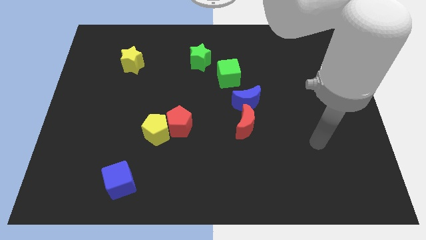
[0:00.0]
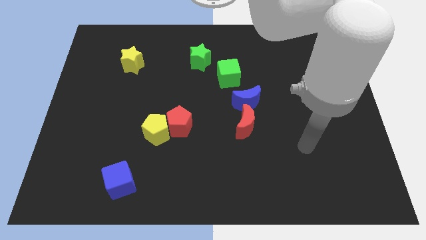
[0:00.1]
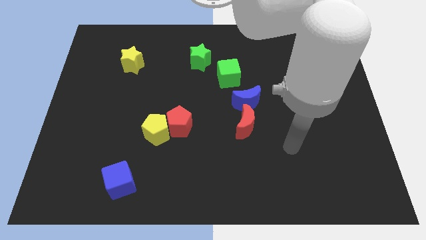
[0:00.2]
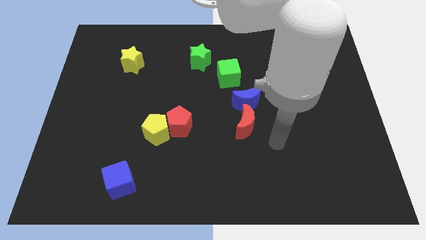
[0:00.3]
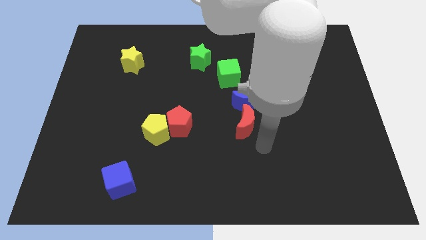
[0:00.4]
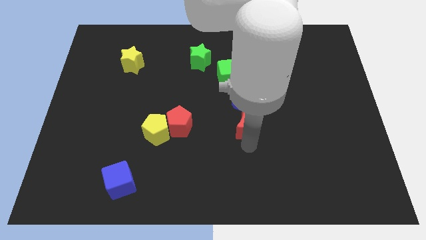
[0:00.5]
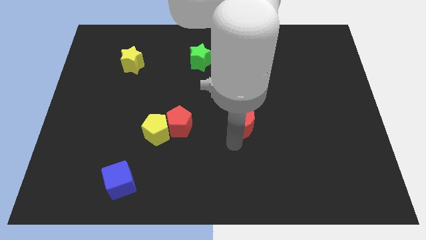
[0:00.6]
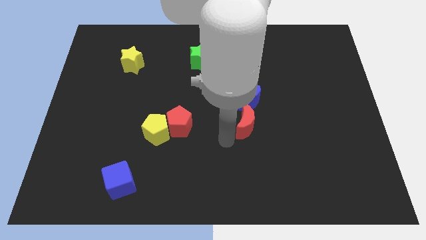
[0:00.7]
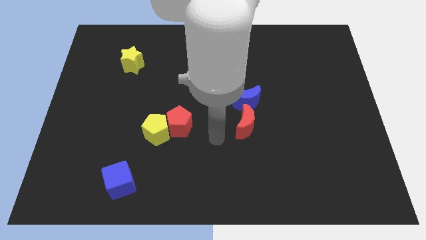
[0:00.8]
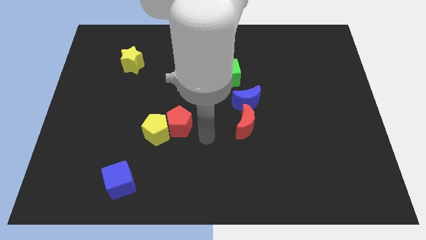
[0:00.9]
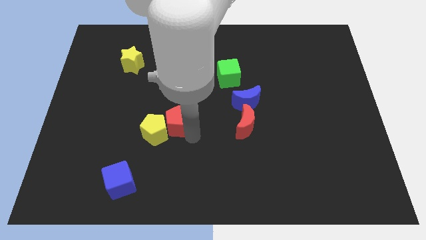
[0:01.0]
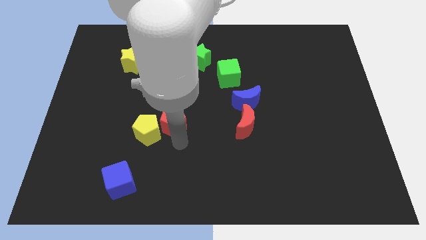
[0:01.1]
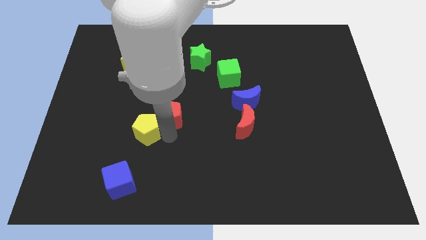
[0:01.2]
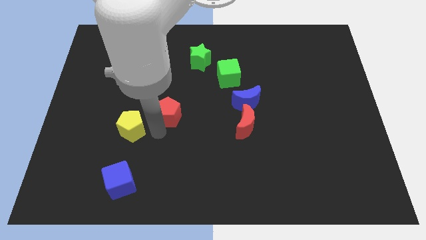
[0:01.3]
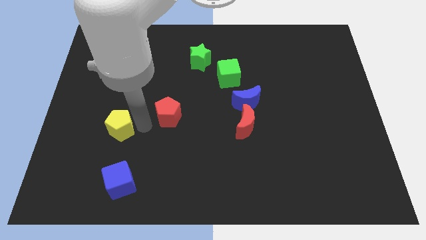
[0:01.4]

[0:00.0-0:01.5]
pull the red pentagon apart from the yellow pentagon

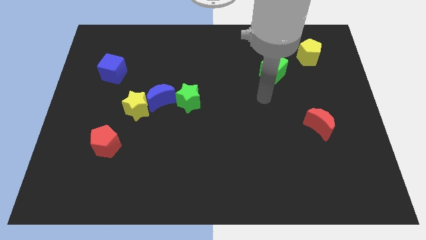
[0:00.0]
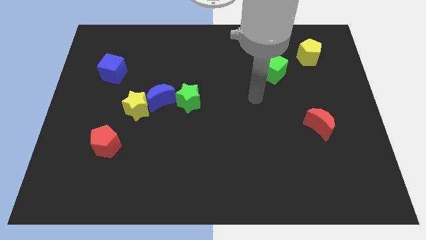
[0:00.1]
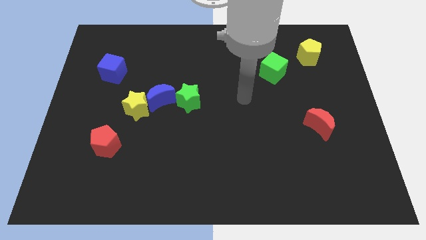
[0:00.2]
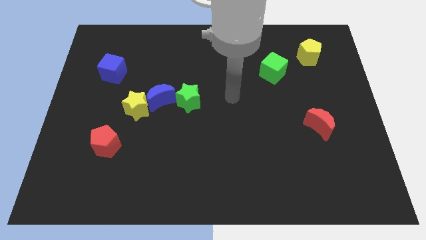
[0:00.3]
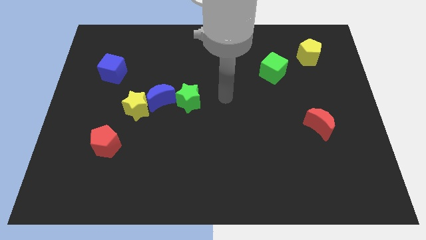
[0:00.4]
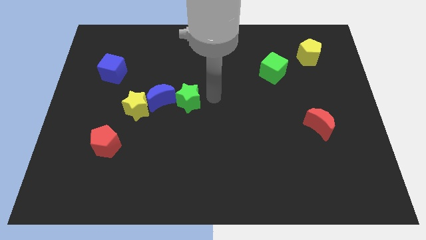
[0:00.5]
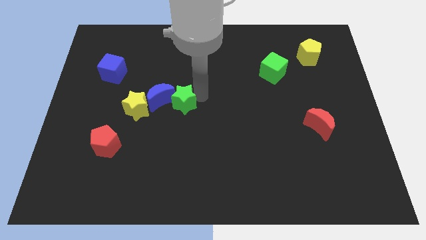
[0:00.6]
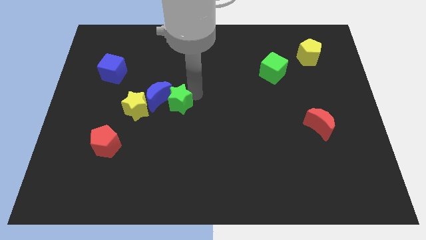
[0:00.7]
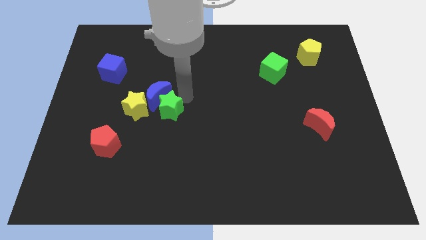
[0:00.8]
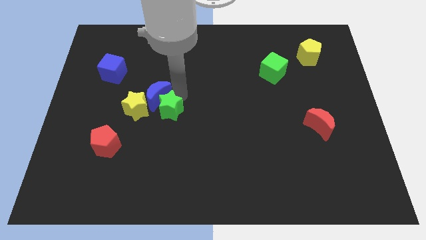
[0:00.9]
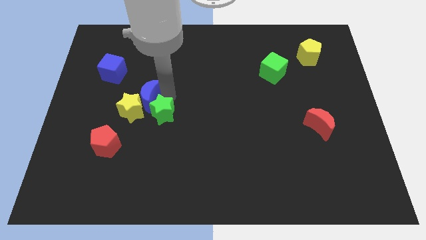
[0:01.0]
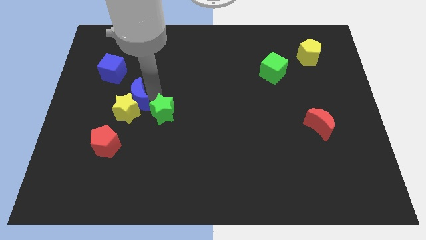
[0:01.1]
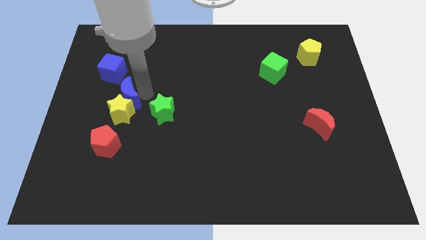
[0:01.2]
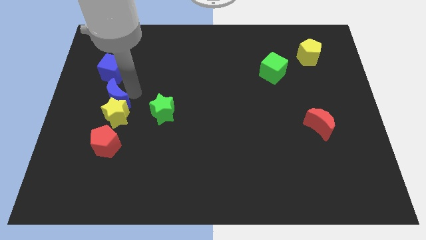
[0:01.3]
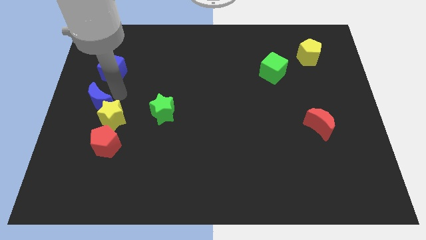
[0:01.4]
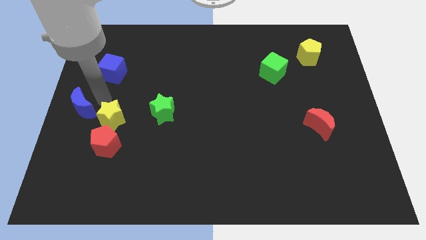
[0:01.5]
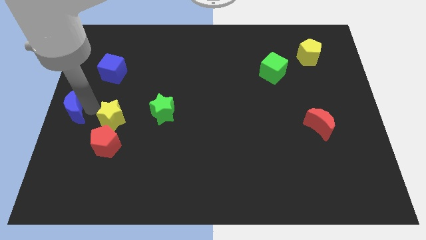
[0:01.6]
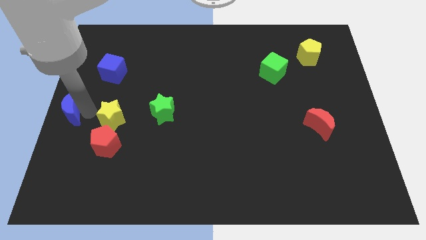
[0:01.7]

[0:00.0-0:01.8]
move the yellow star away from the blue moon

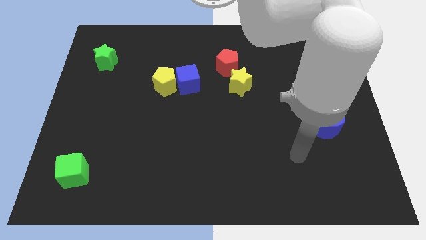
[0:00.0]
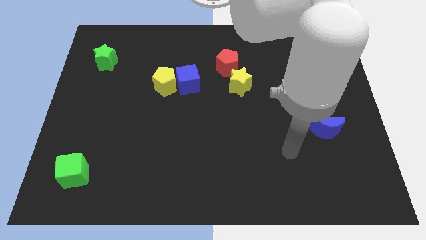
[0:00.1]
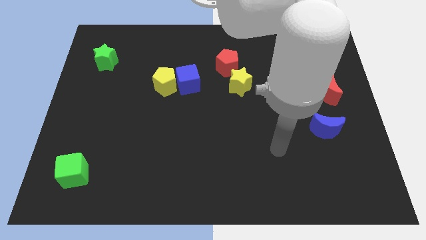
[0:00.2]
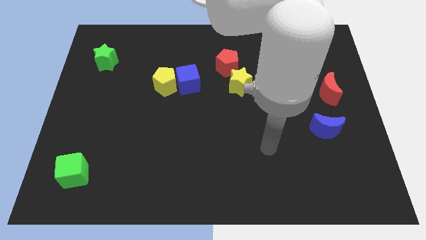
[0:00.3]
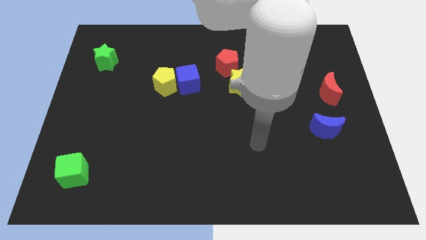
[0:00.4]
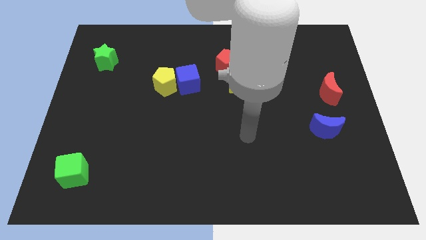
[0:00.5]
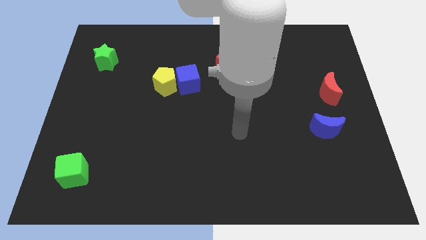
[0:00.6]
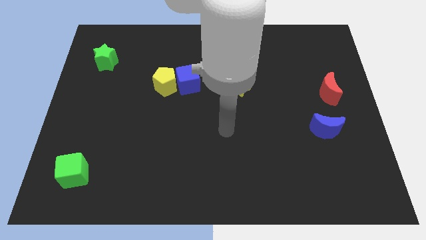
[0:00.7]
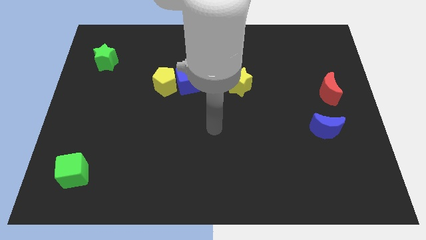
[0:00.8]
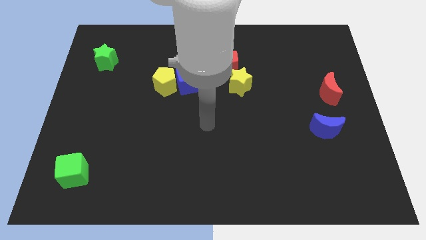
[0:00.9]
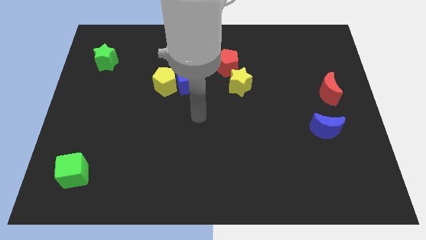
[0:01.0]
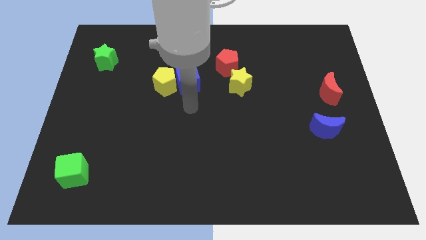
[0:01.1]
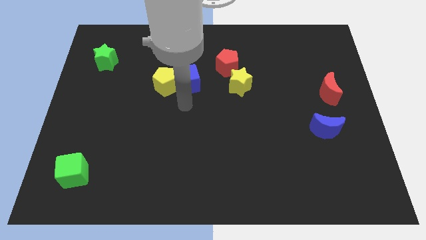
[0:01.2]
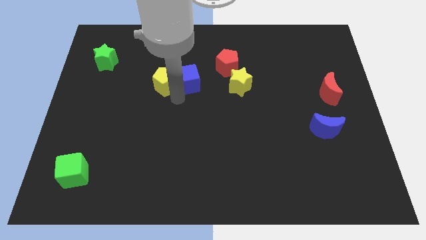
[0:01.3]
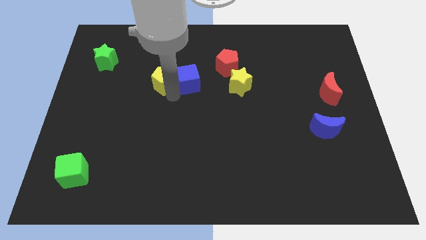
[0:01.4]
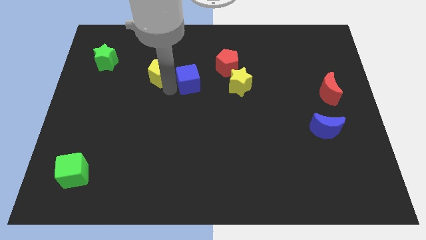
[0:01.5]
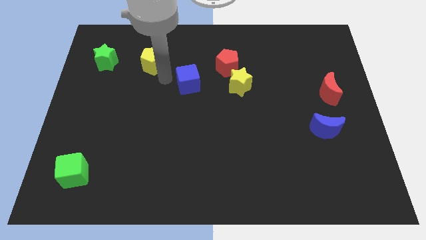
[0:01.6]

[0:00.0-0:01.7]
pull the blue cube apart from the yellow pentagon

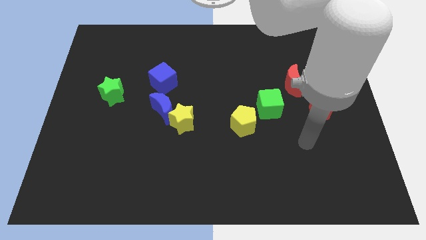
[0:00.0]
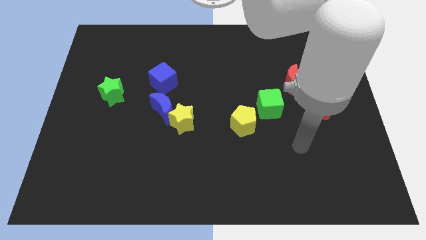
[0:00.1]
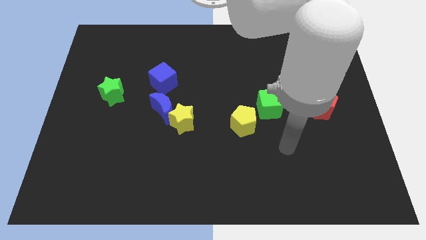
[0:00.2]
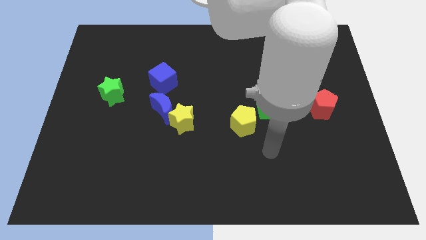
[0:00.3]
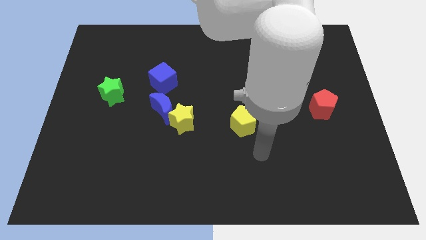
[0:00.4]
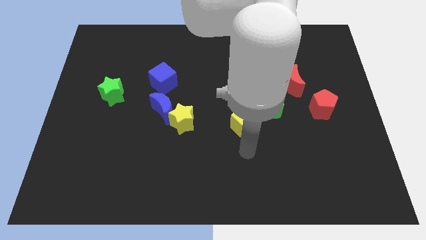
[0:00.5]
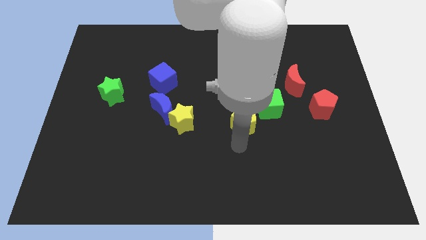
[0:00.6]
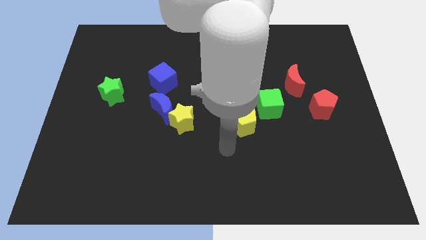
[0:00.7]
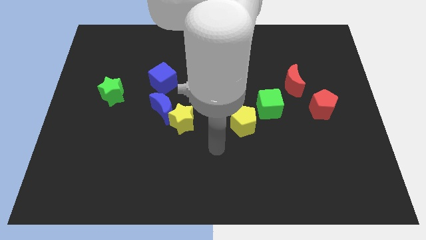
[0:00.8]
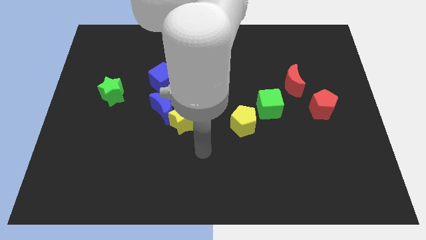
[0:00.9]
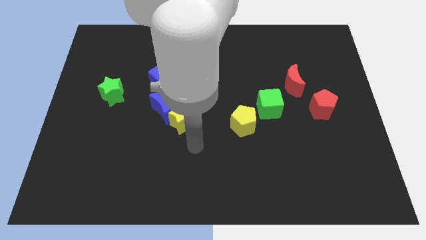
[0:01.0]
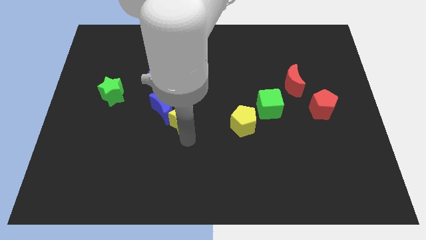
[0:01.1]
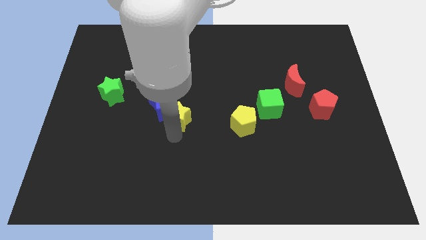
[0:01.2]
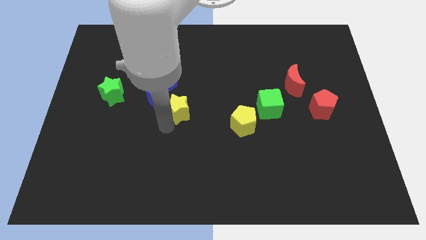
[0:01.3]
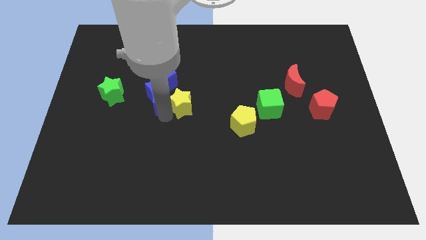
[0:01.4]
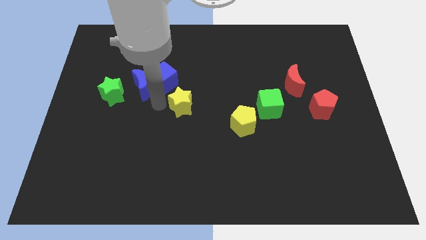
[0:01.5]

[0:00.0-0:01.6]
separate the yellow star from the blue moon

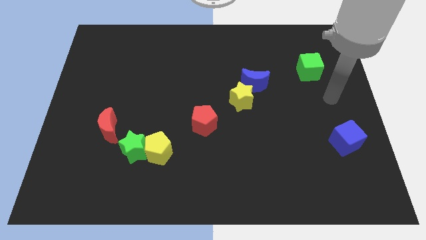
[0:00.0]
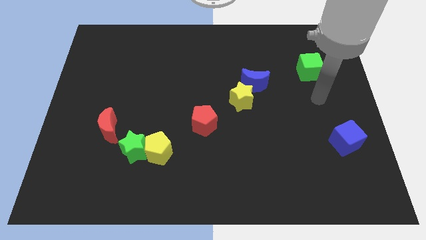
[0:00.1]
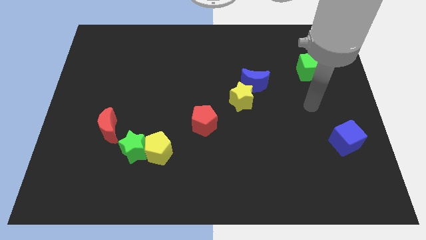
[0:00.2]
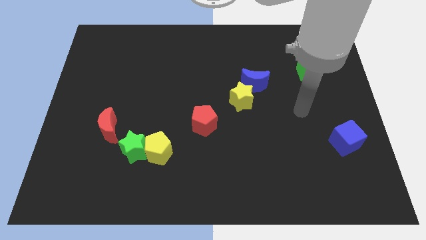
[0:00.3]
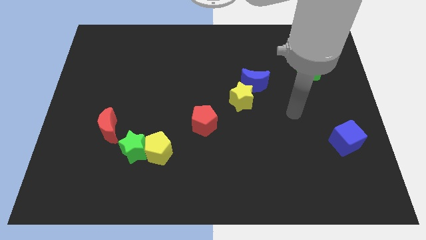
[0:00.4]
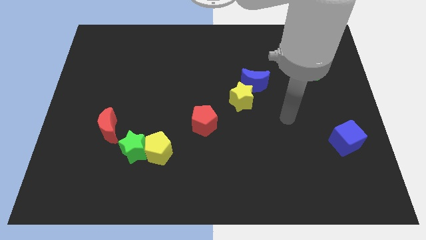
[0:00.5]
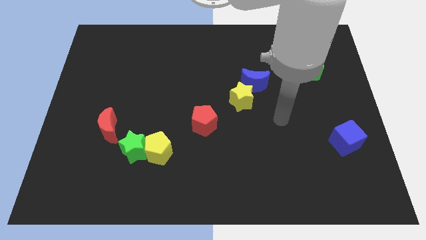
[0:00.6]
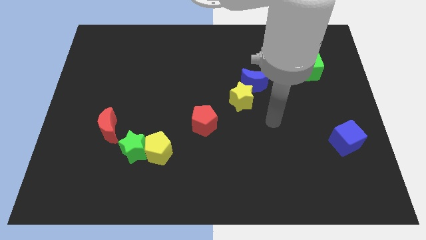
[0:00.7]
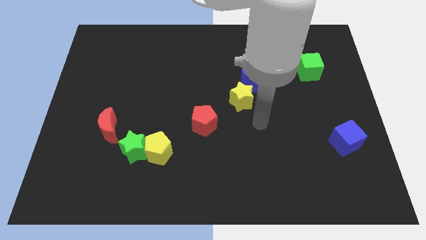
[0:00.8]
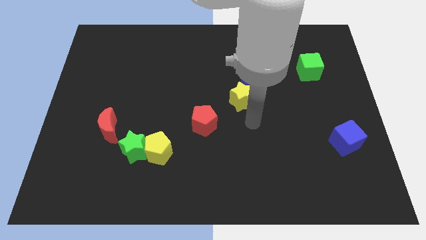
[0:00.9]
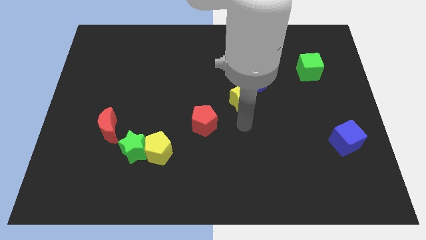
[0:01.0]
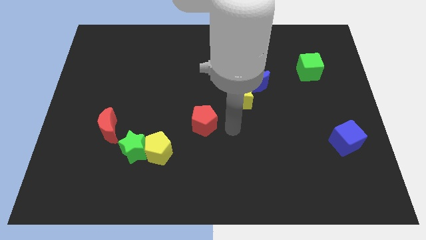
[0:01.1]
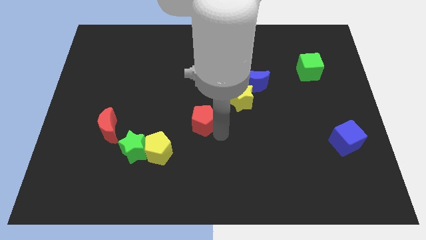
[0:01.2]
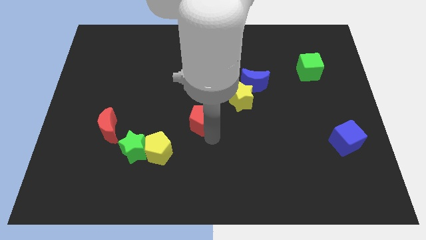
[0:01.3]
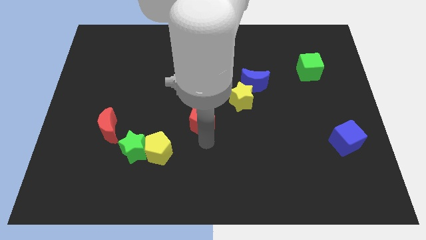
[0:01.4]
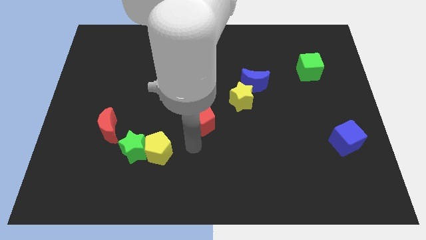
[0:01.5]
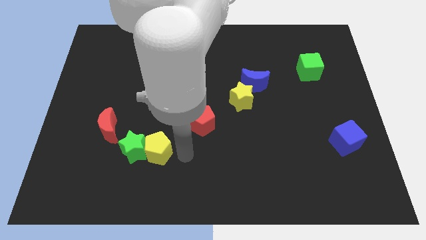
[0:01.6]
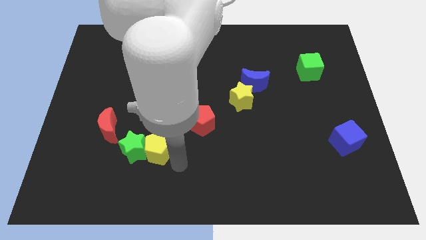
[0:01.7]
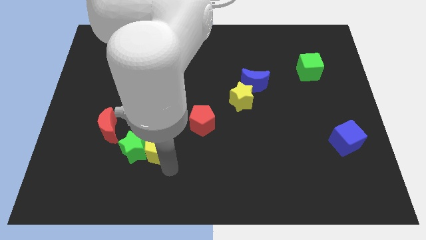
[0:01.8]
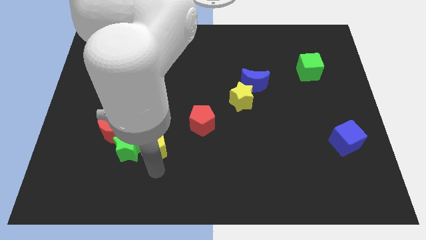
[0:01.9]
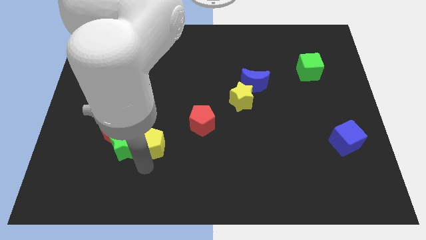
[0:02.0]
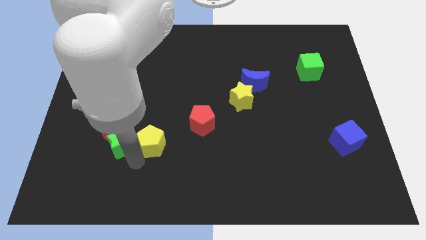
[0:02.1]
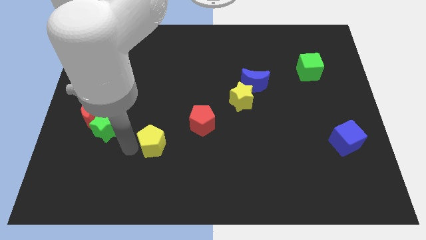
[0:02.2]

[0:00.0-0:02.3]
pull the yellow pentagon apart from the green star

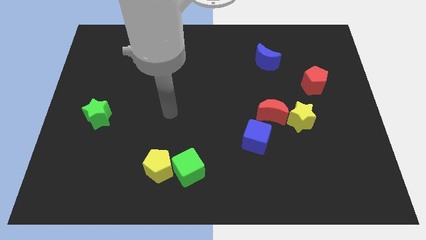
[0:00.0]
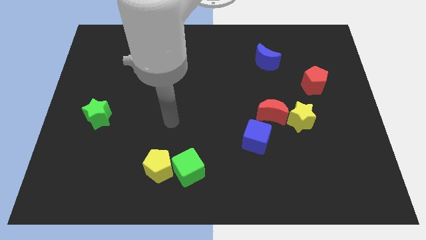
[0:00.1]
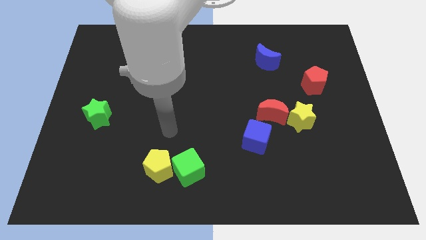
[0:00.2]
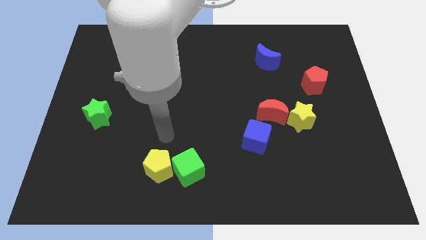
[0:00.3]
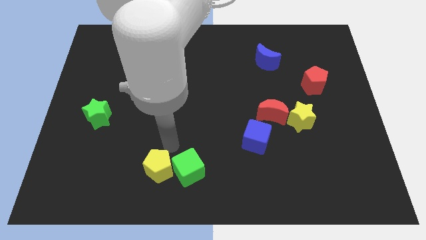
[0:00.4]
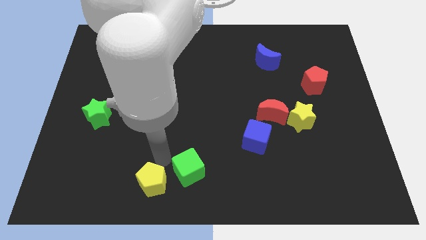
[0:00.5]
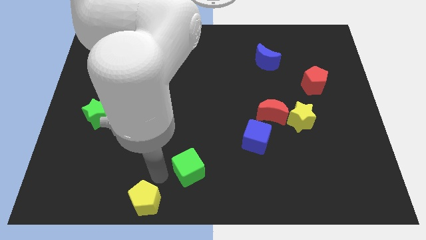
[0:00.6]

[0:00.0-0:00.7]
separate the green cube from the yellow pentagon
